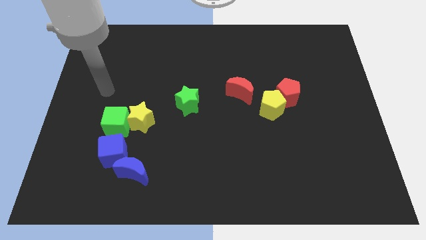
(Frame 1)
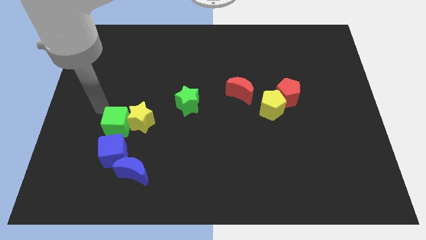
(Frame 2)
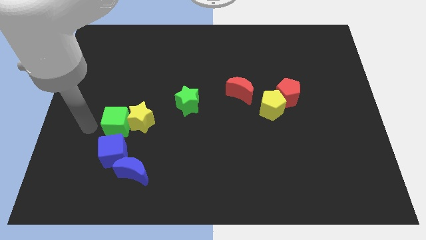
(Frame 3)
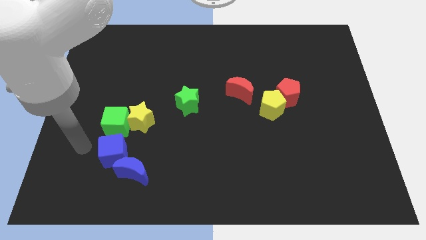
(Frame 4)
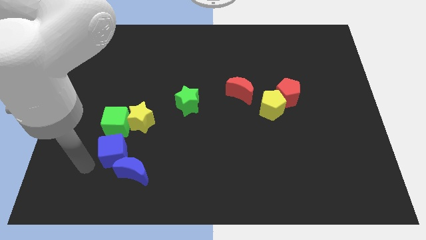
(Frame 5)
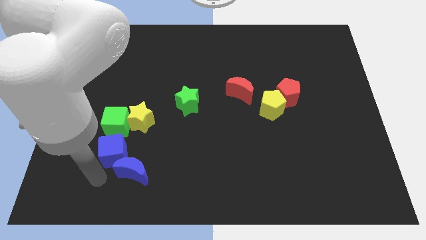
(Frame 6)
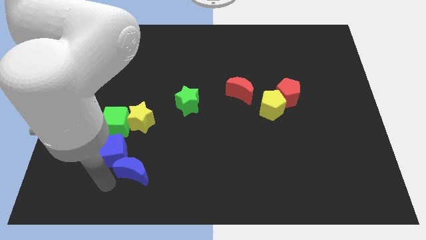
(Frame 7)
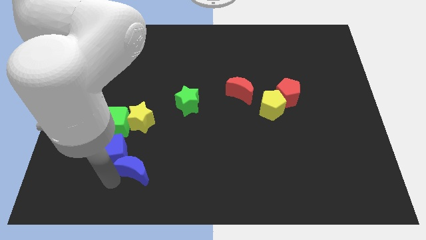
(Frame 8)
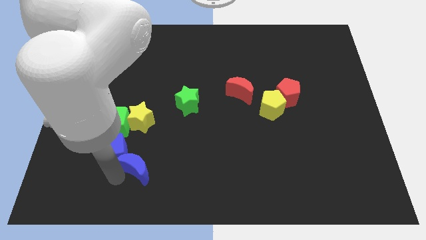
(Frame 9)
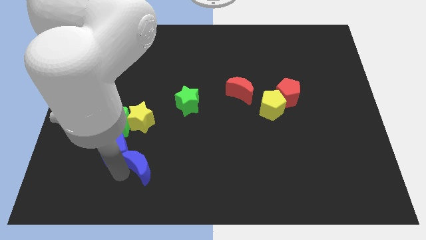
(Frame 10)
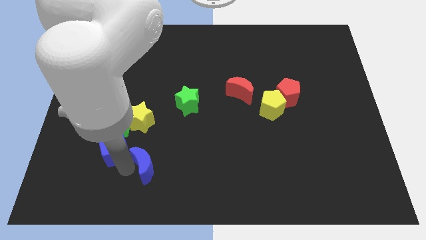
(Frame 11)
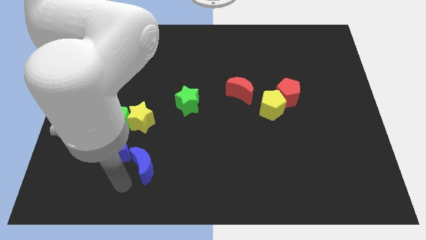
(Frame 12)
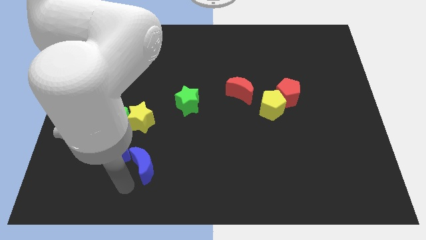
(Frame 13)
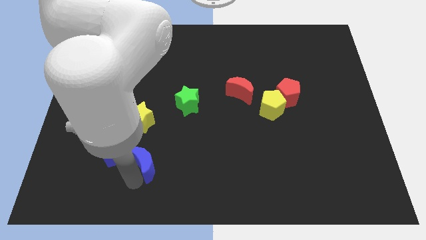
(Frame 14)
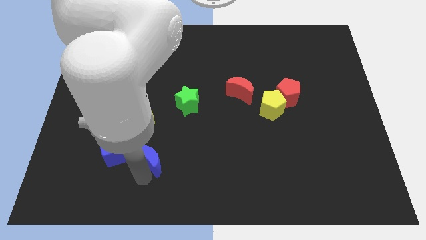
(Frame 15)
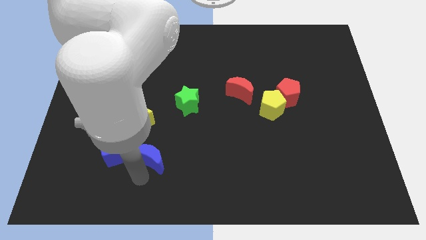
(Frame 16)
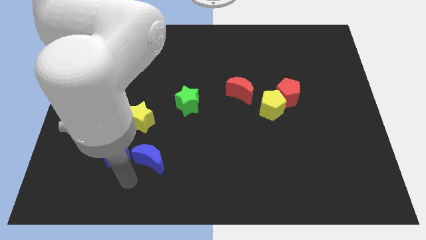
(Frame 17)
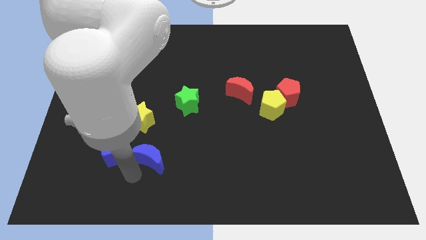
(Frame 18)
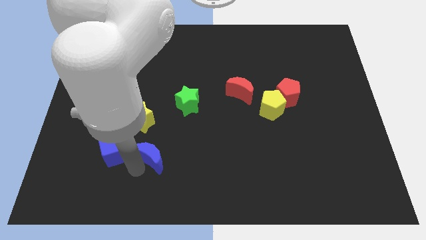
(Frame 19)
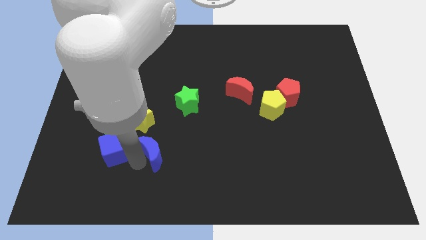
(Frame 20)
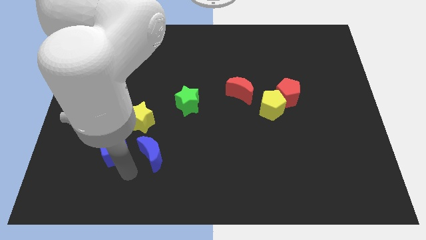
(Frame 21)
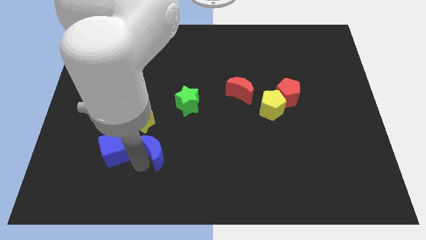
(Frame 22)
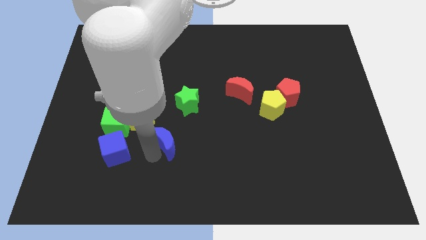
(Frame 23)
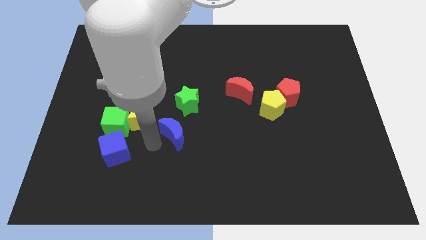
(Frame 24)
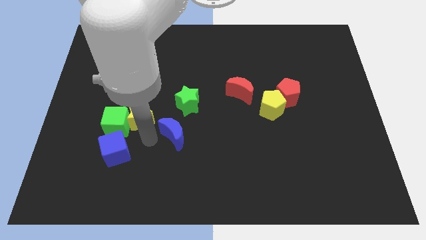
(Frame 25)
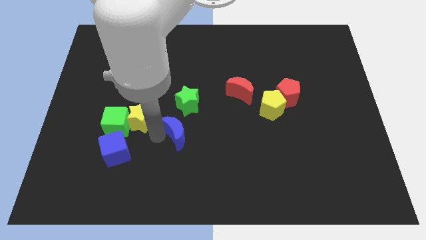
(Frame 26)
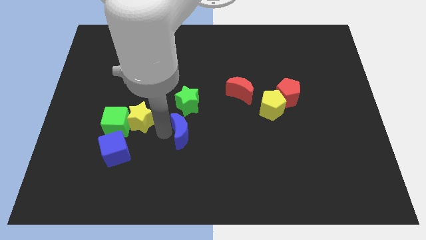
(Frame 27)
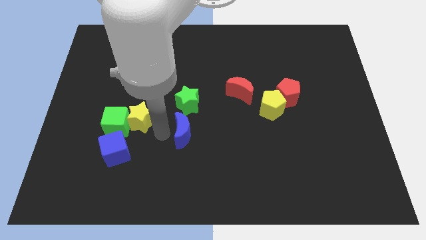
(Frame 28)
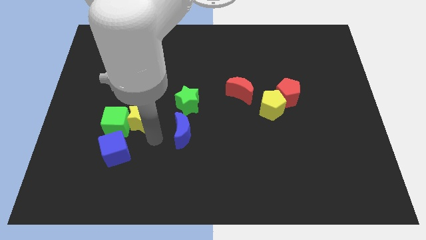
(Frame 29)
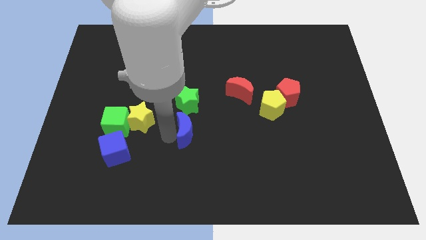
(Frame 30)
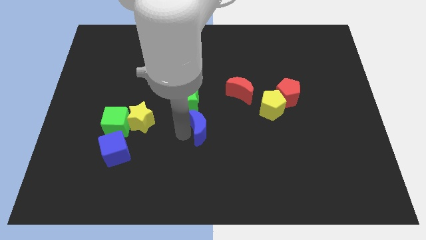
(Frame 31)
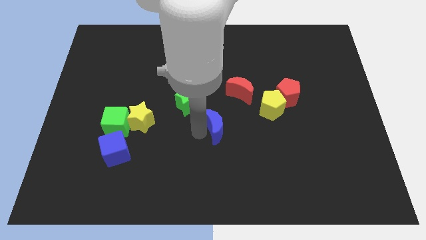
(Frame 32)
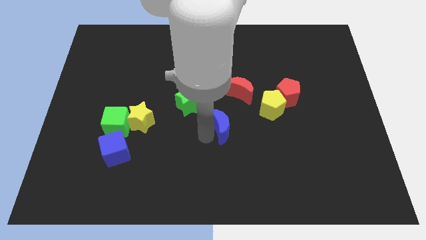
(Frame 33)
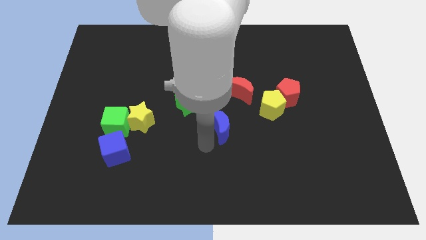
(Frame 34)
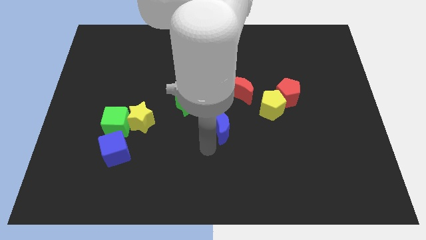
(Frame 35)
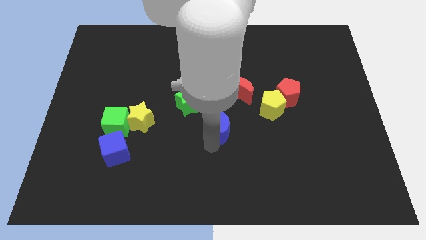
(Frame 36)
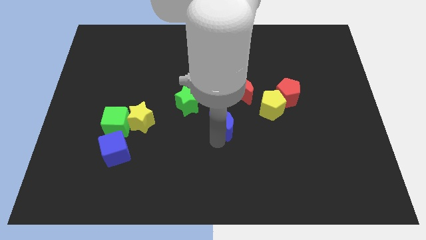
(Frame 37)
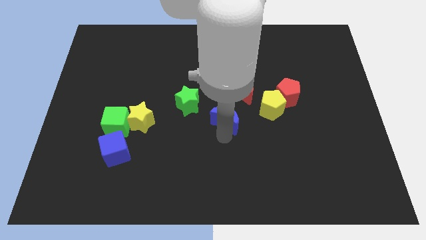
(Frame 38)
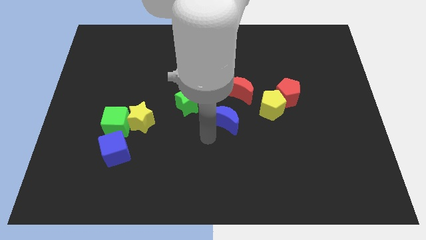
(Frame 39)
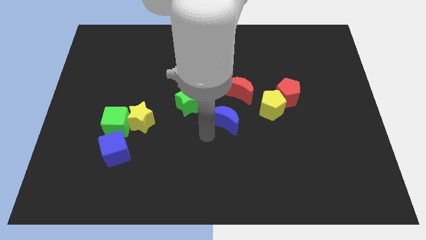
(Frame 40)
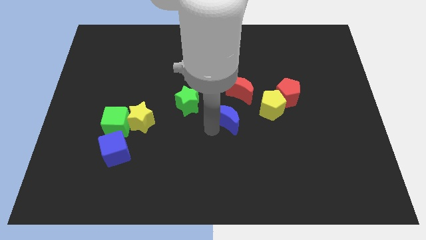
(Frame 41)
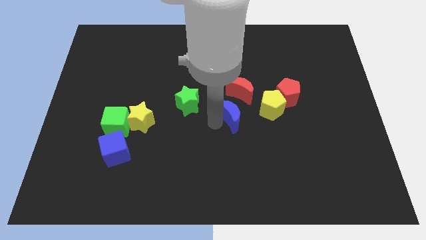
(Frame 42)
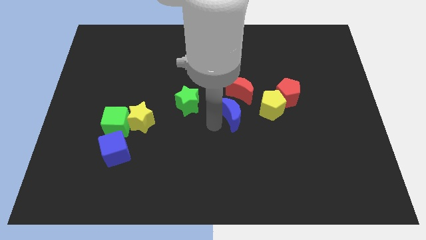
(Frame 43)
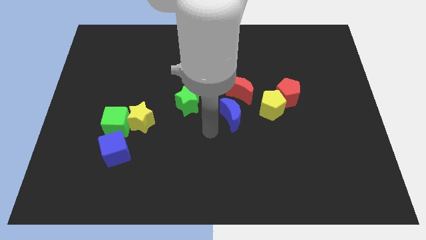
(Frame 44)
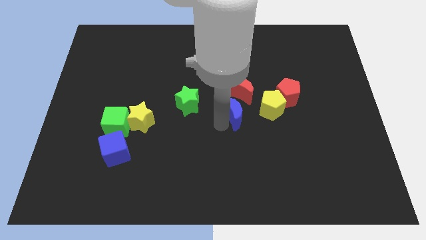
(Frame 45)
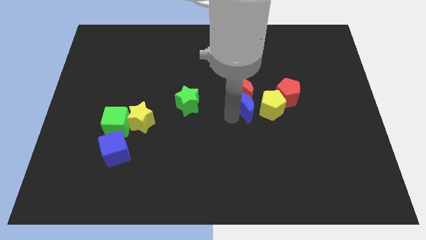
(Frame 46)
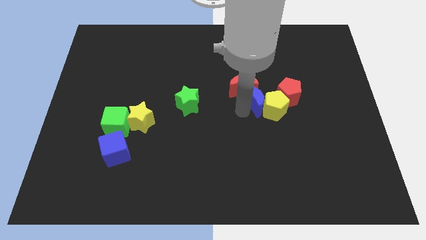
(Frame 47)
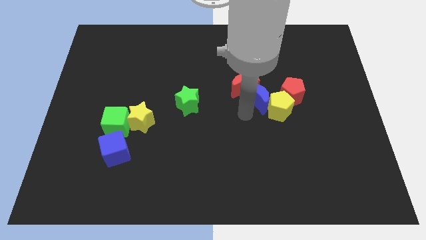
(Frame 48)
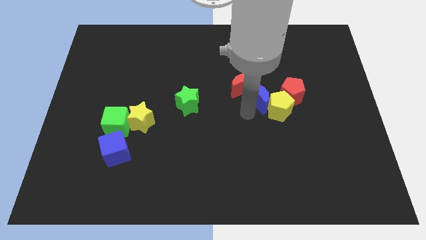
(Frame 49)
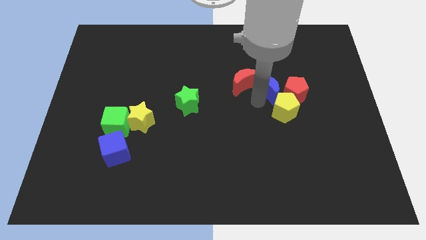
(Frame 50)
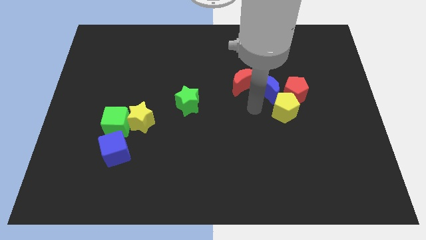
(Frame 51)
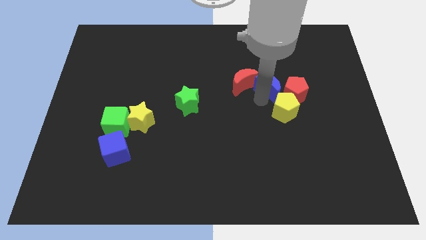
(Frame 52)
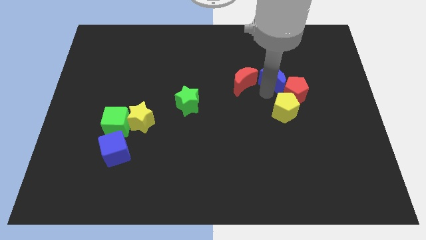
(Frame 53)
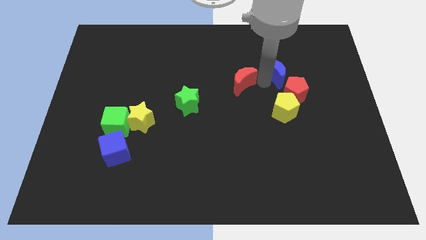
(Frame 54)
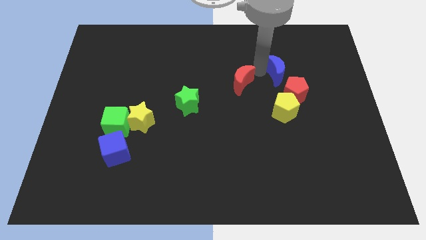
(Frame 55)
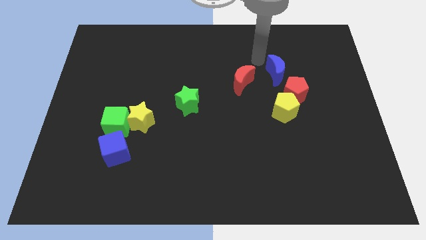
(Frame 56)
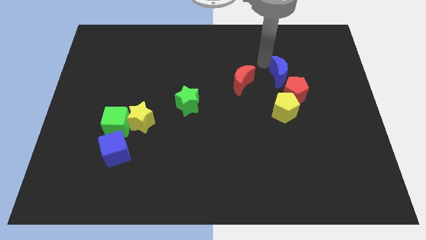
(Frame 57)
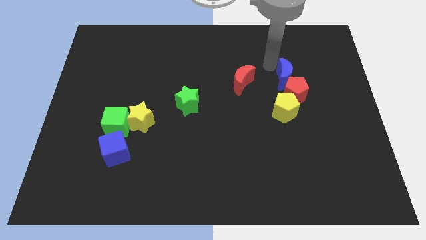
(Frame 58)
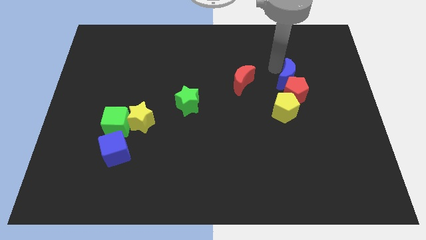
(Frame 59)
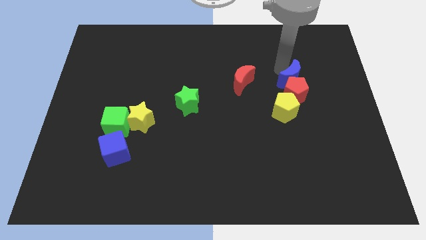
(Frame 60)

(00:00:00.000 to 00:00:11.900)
move the blue moon to the top right of the yellow pentagon

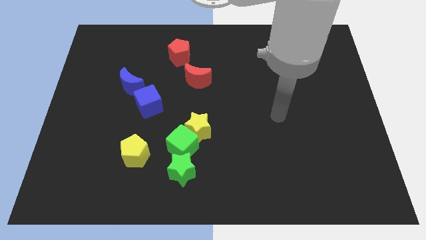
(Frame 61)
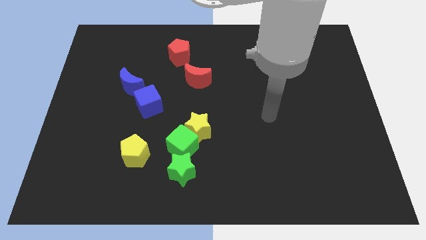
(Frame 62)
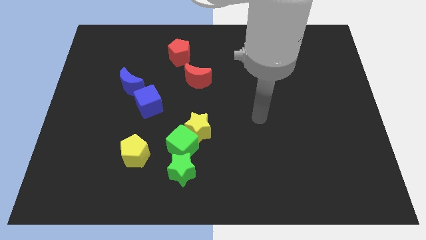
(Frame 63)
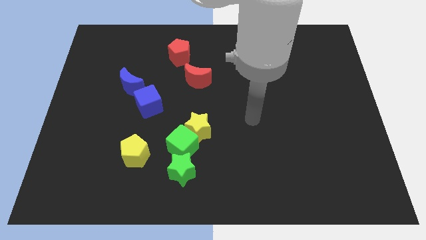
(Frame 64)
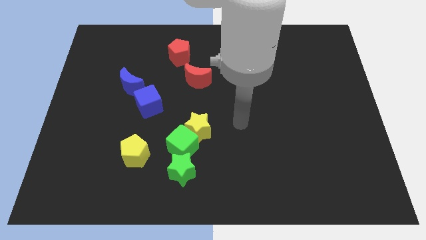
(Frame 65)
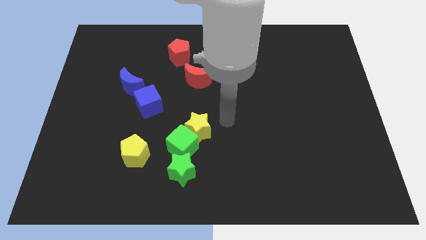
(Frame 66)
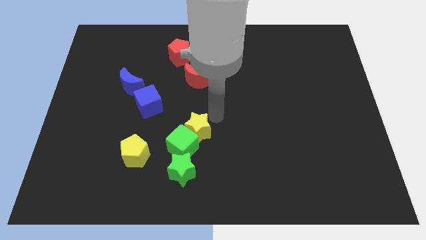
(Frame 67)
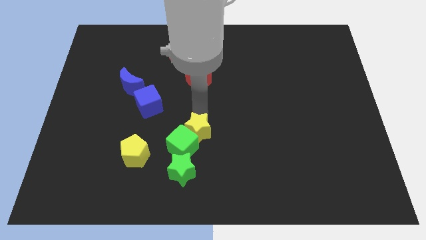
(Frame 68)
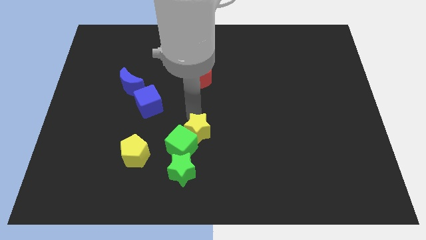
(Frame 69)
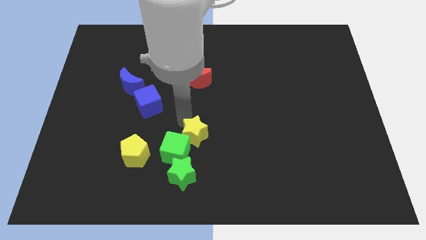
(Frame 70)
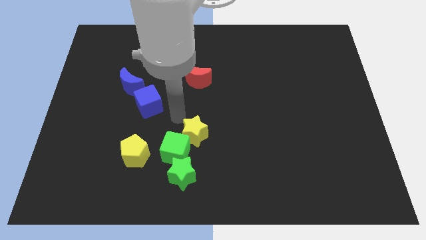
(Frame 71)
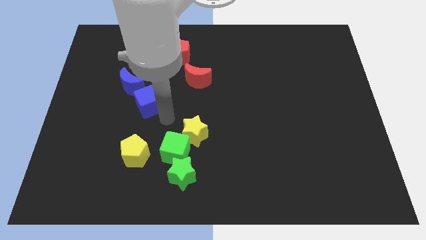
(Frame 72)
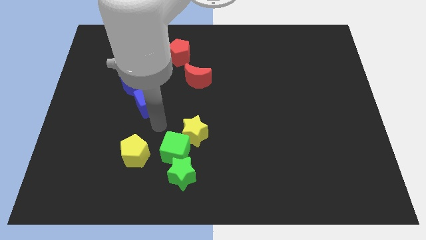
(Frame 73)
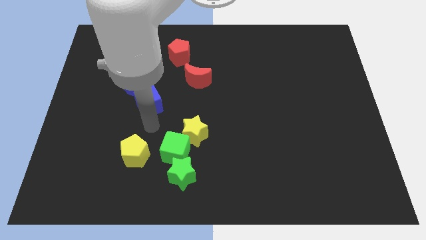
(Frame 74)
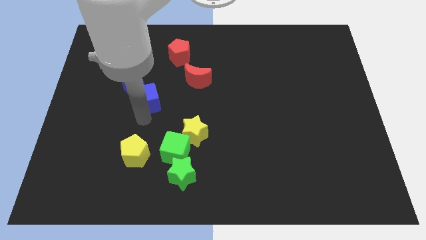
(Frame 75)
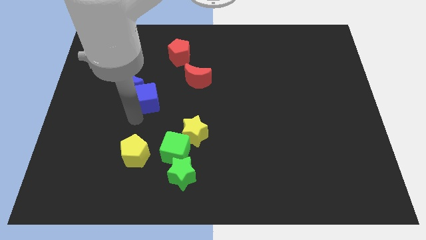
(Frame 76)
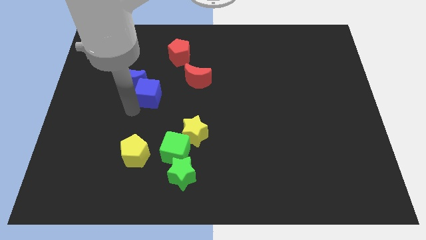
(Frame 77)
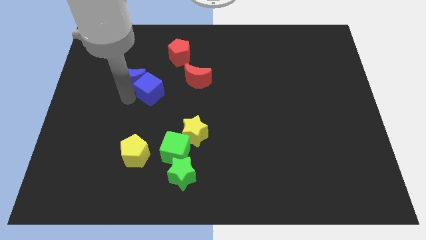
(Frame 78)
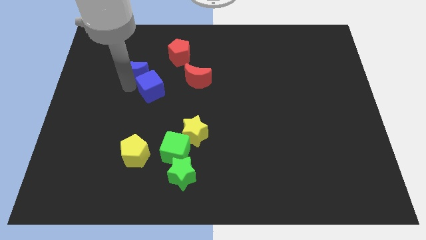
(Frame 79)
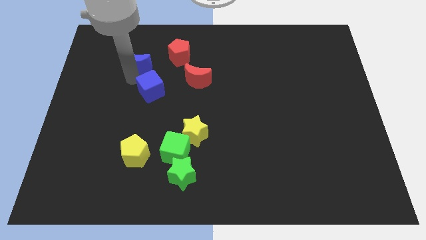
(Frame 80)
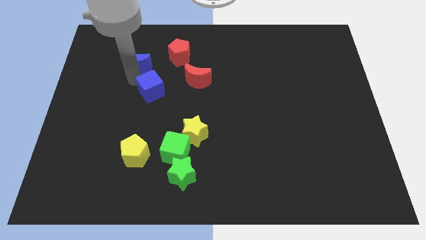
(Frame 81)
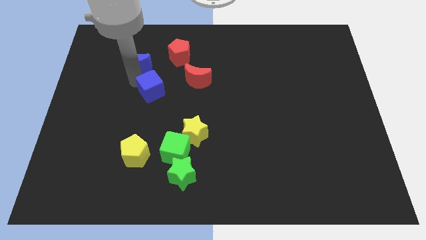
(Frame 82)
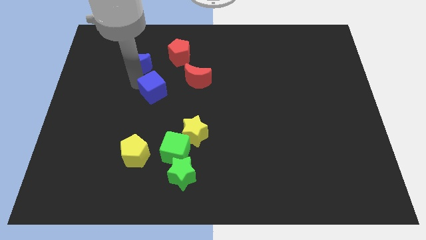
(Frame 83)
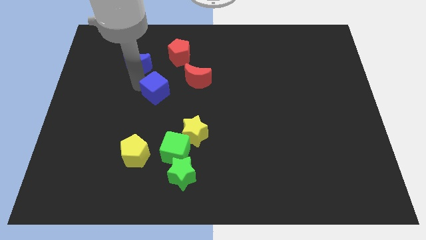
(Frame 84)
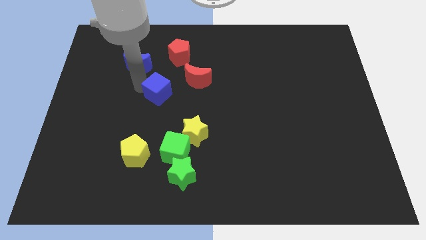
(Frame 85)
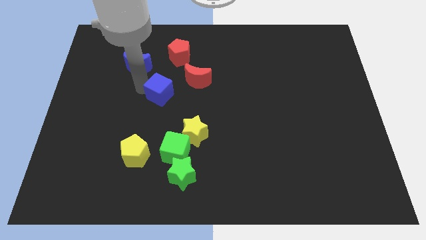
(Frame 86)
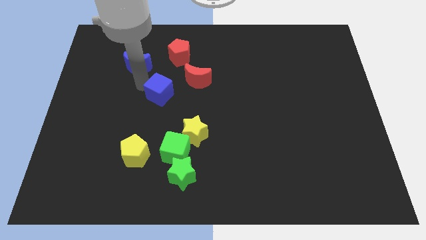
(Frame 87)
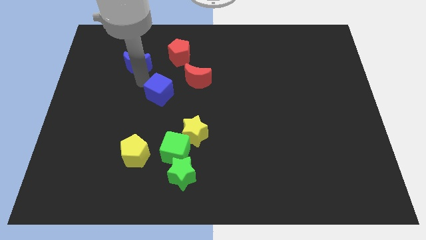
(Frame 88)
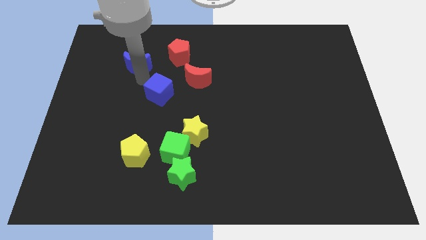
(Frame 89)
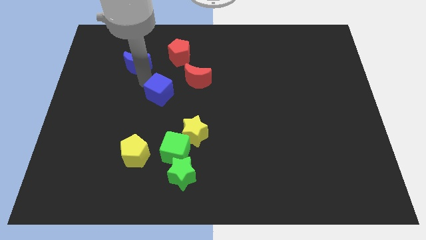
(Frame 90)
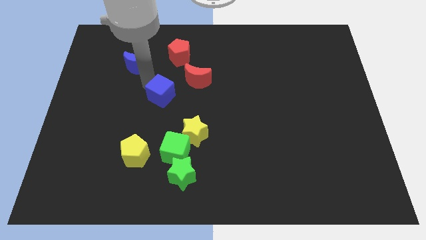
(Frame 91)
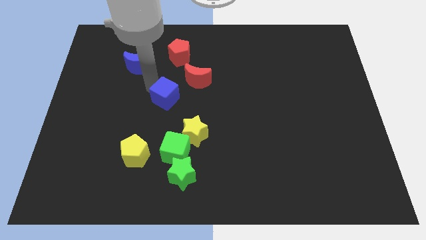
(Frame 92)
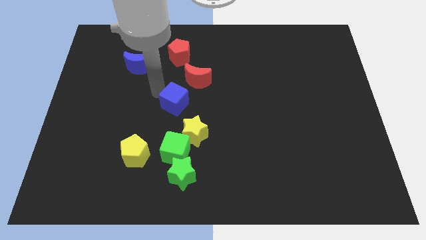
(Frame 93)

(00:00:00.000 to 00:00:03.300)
move the blue cube to the bottom of the red moon
